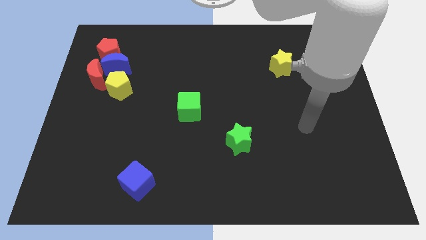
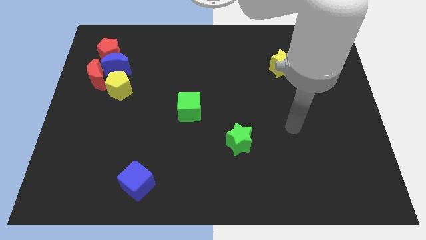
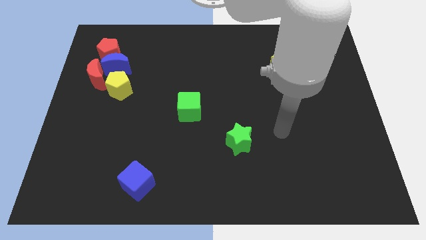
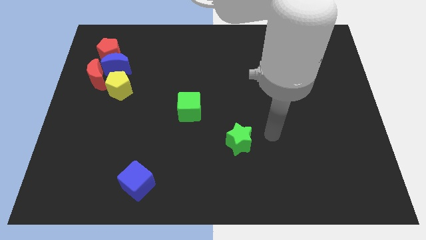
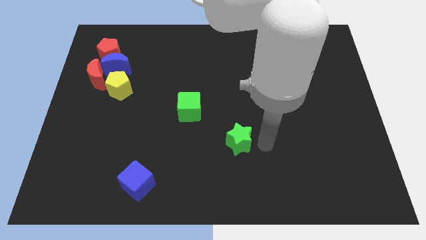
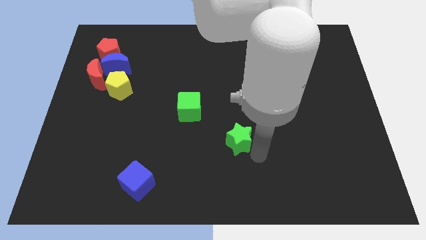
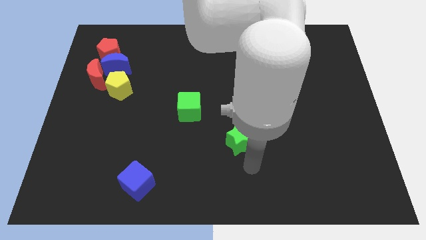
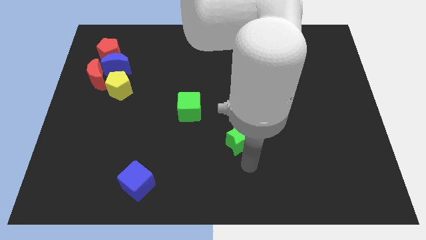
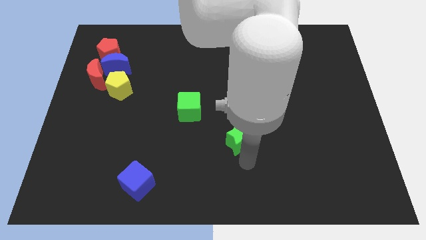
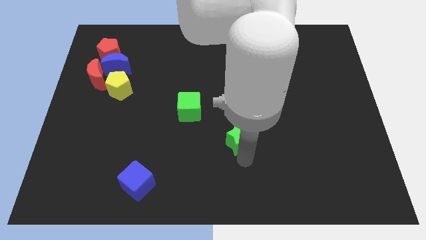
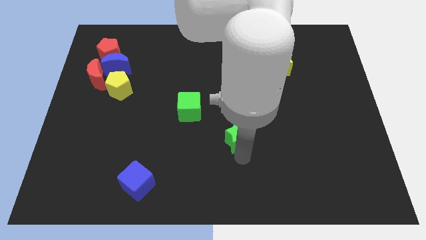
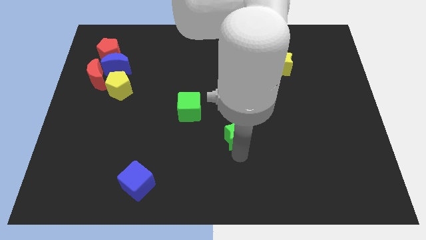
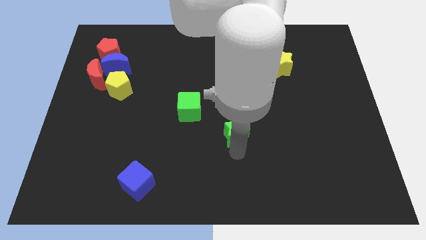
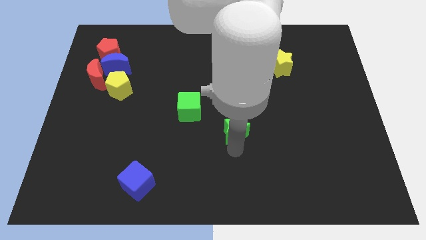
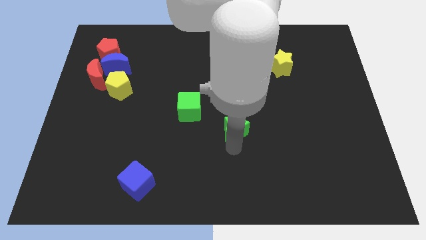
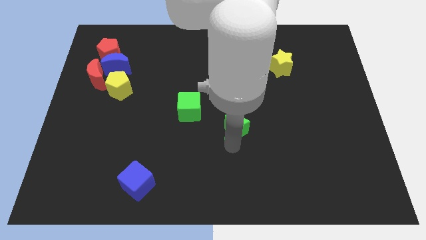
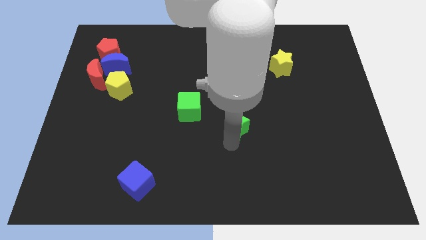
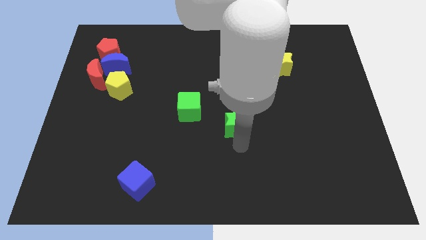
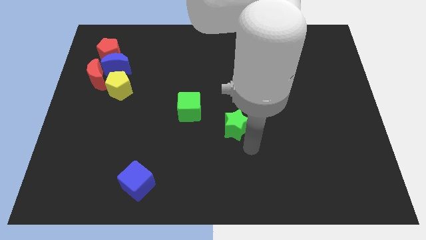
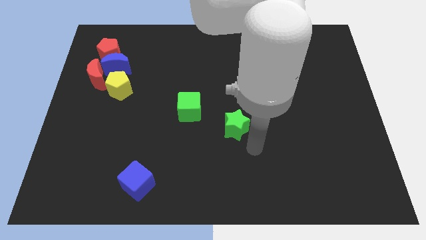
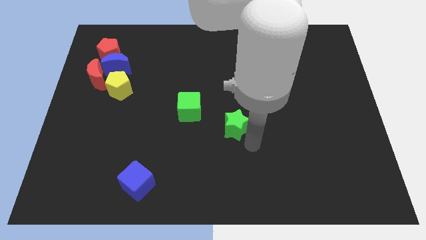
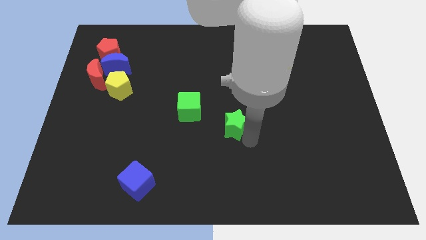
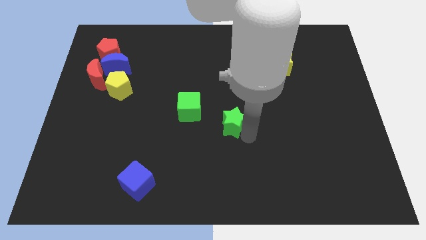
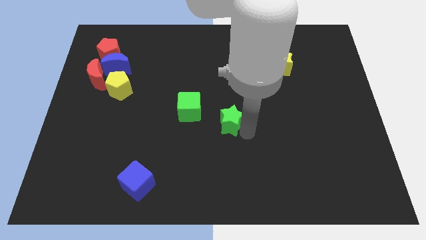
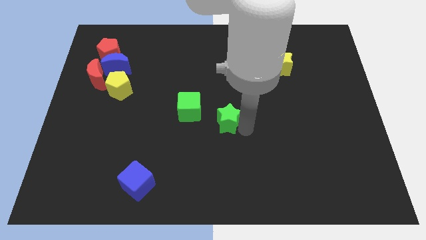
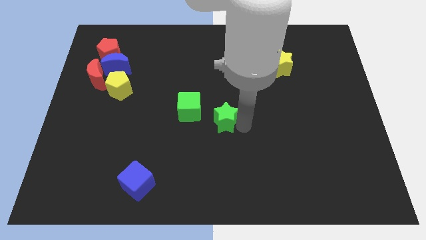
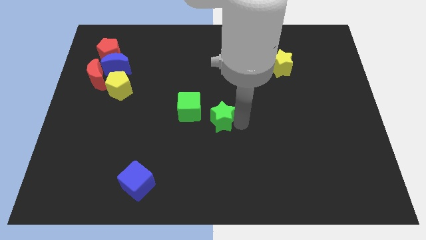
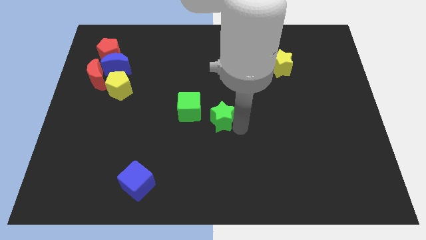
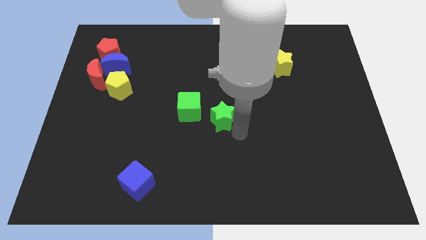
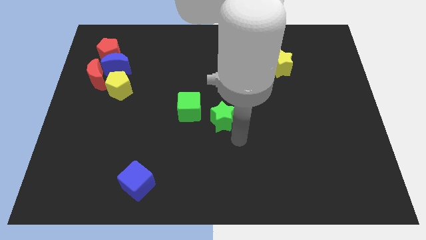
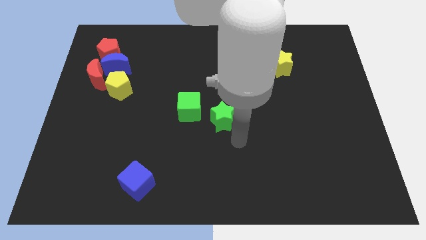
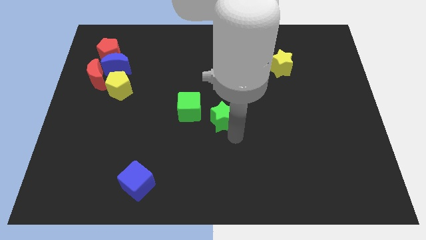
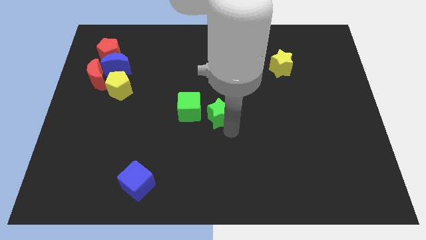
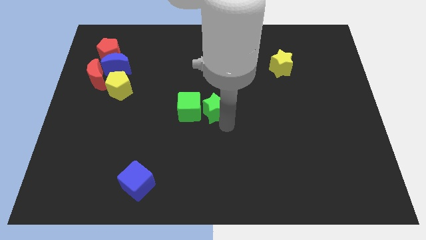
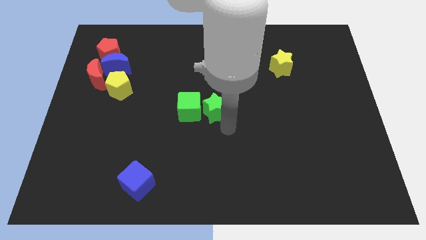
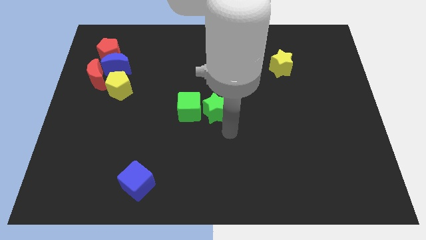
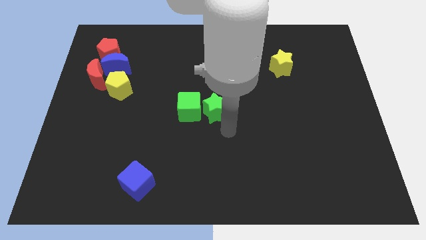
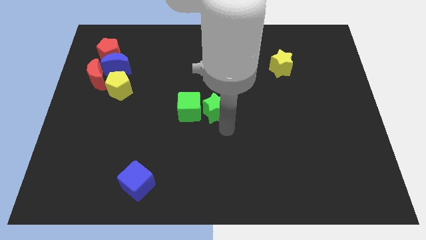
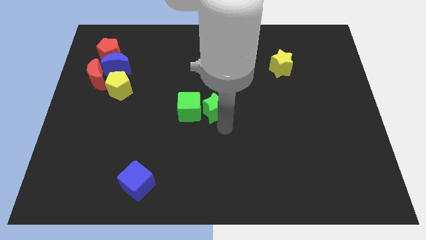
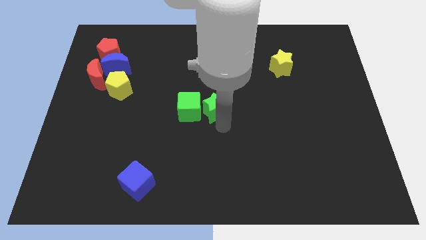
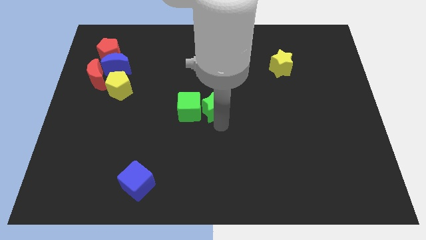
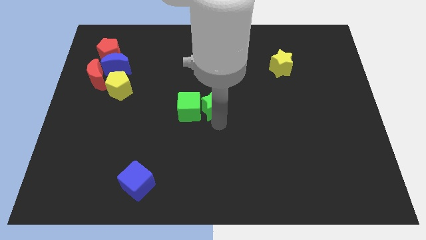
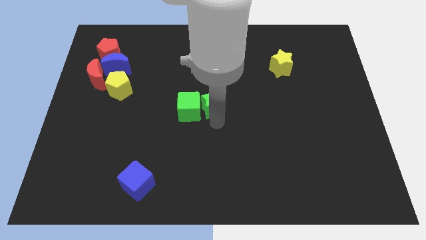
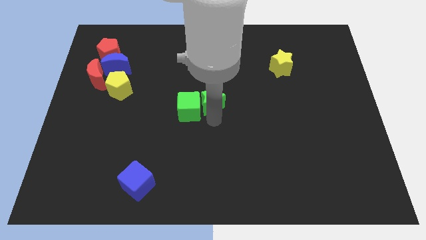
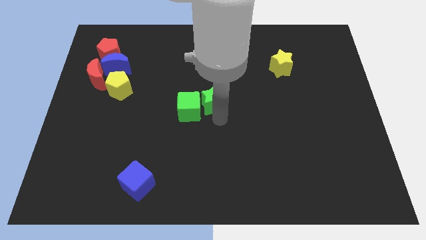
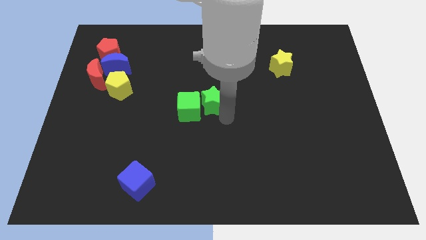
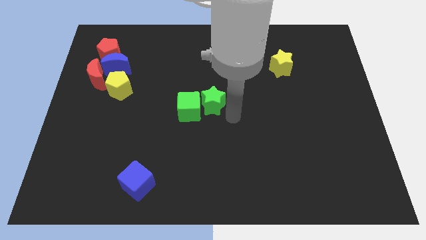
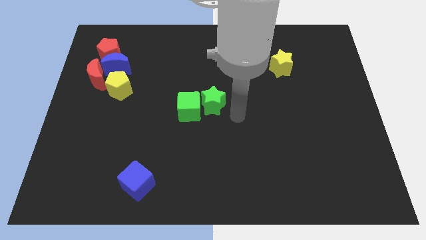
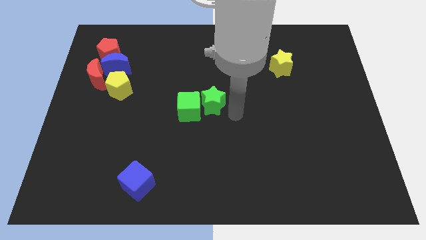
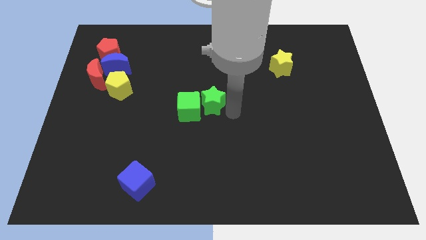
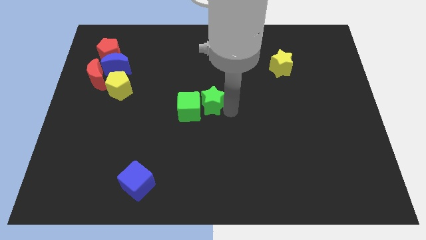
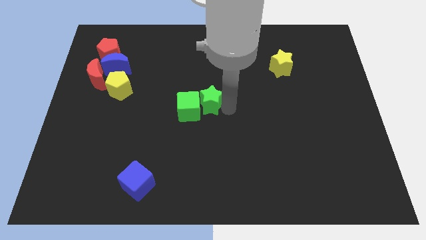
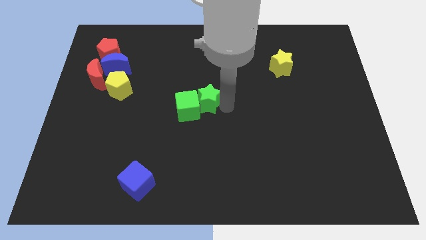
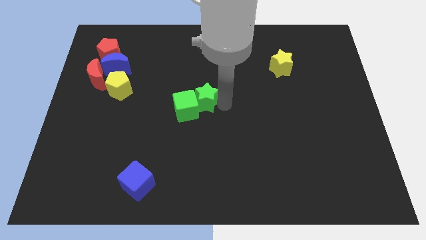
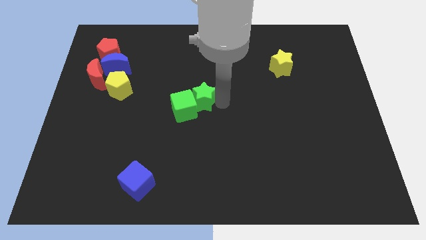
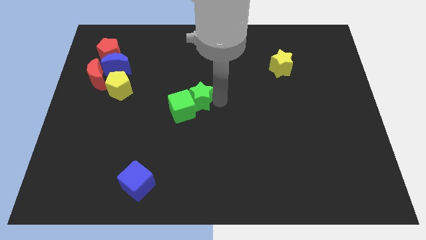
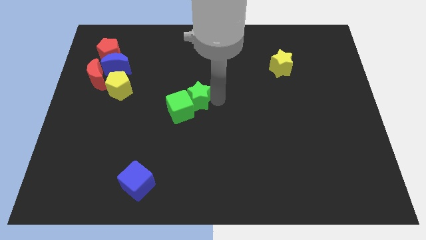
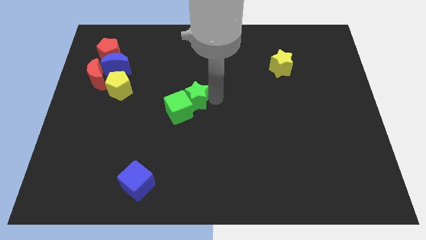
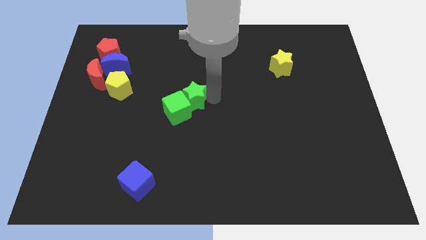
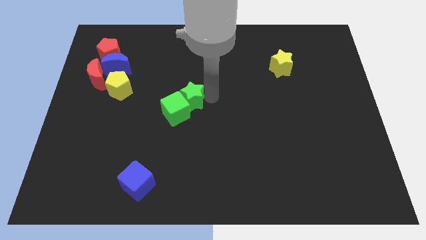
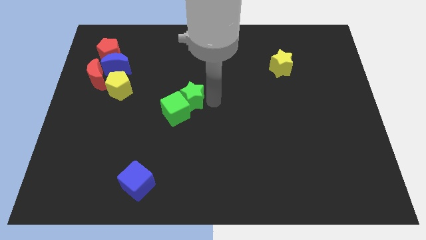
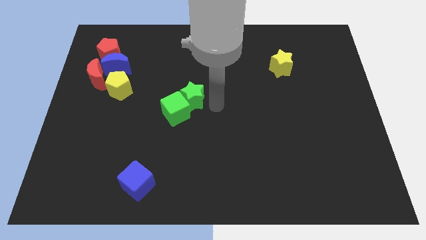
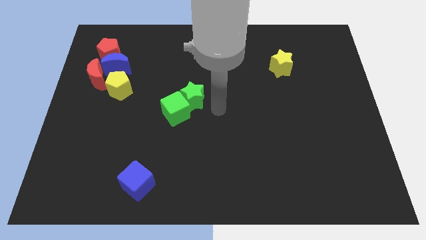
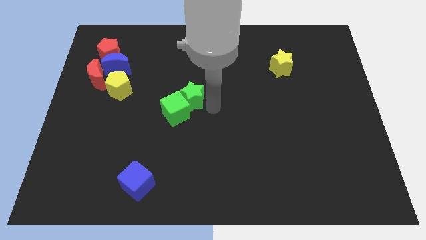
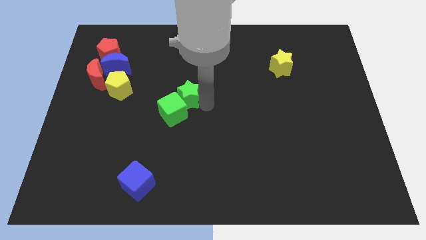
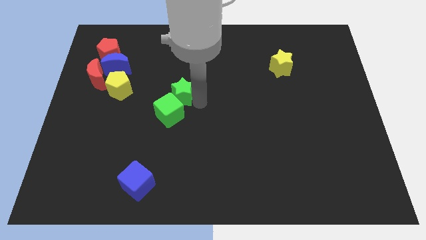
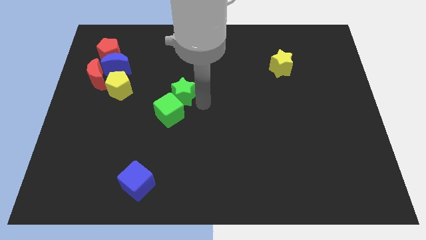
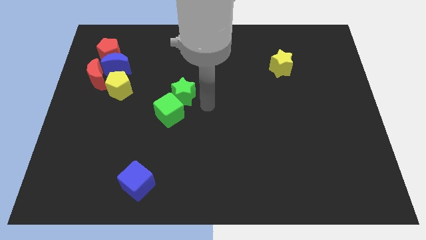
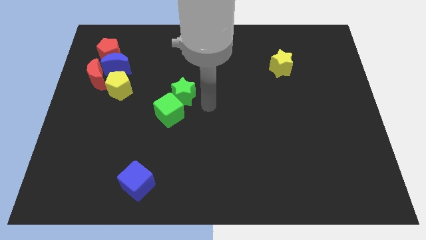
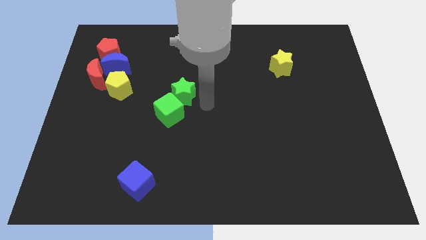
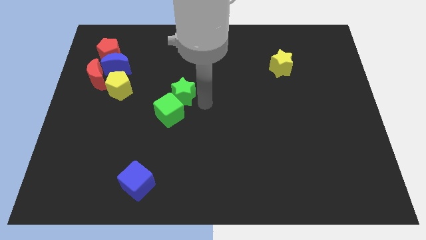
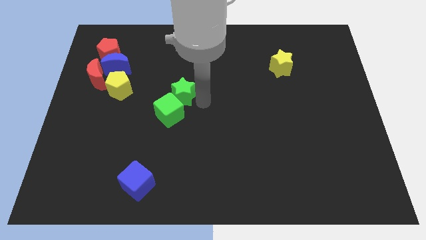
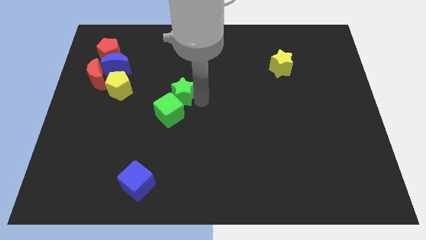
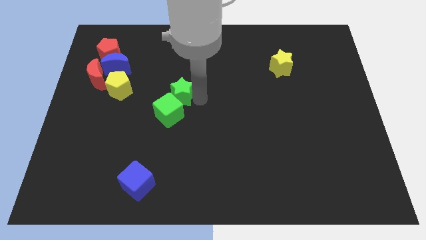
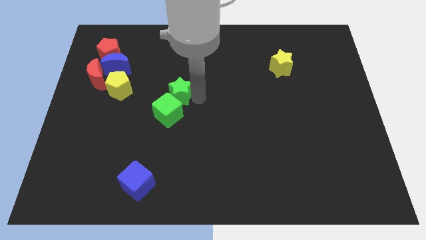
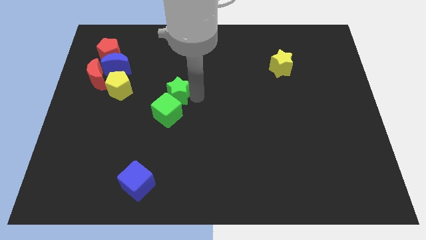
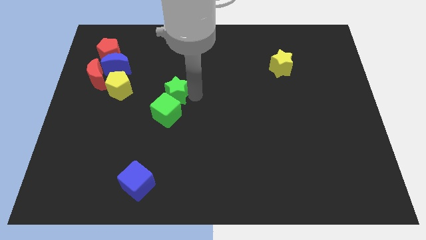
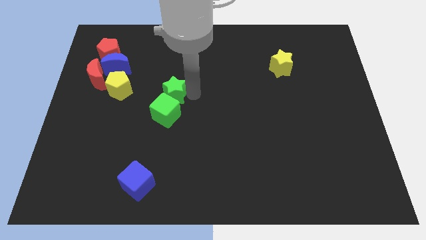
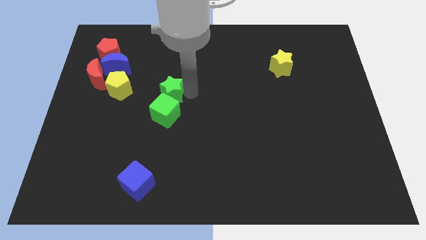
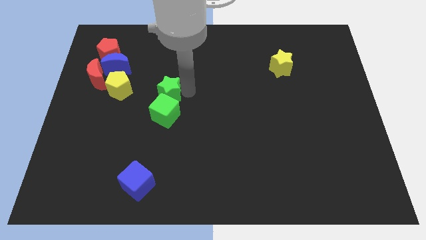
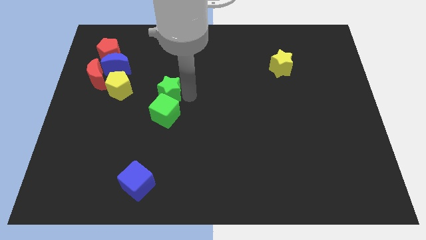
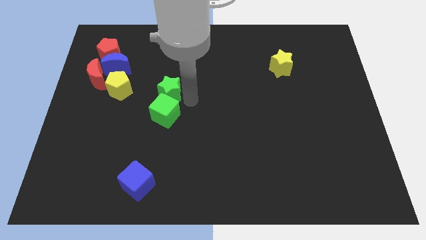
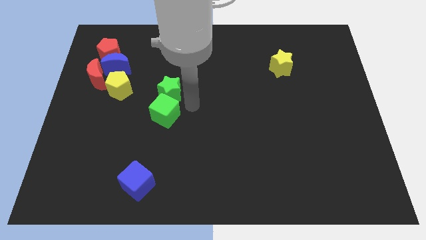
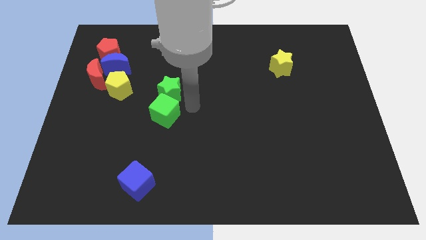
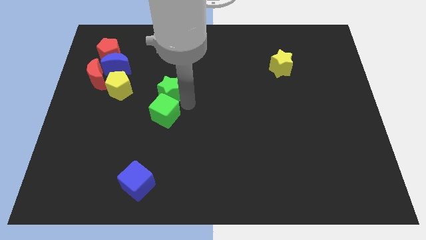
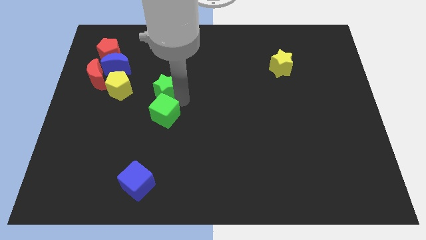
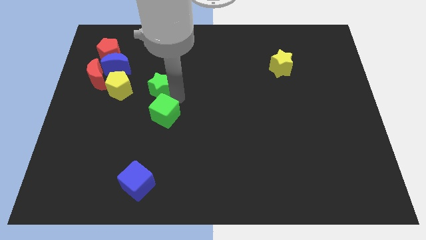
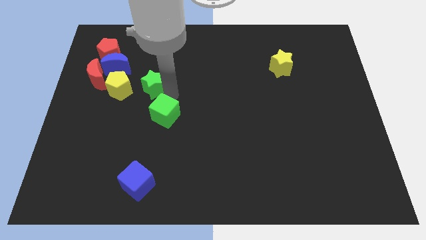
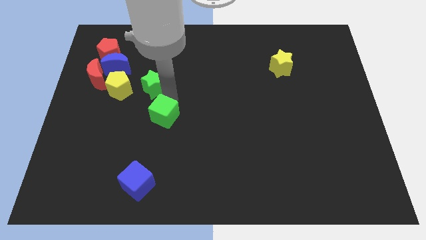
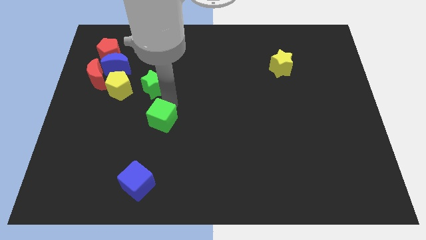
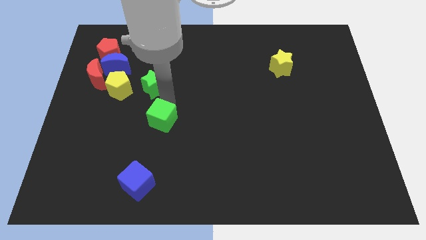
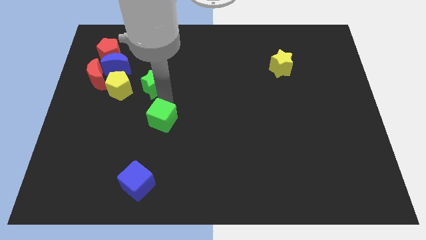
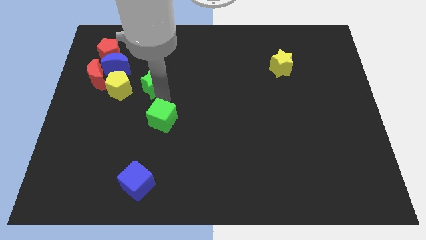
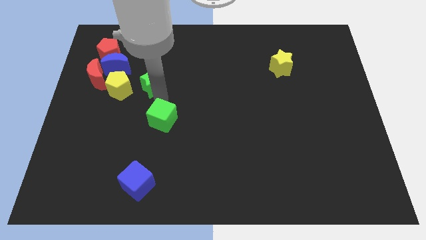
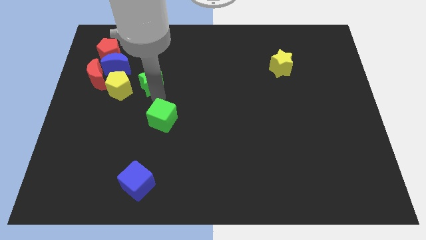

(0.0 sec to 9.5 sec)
put the green star to the top right side of the yellow pentagon
